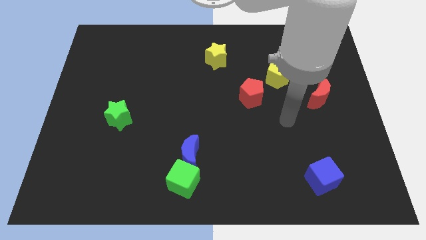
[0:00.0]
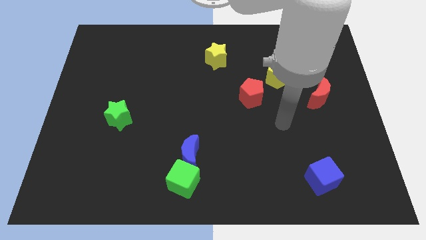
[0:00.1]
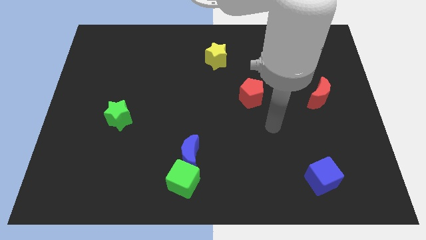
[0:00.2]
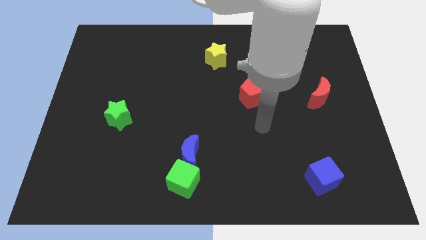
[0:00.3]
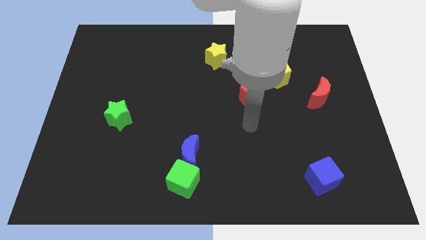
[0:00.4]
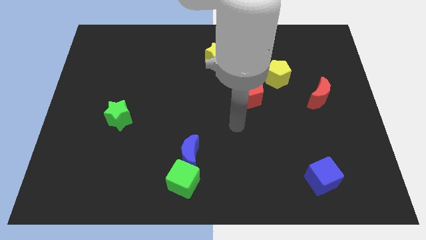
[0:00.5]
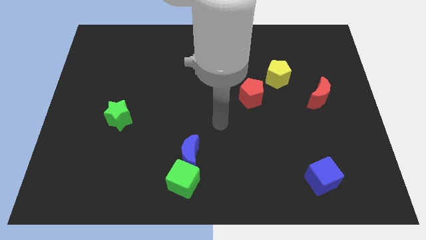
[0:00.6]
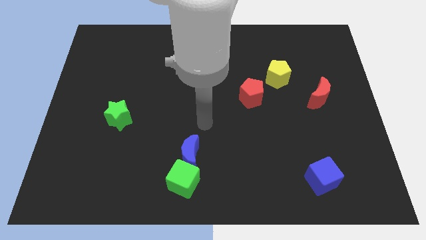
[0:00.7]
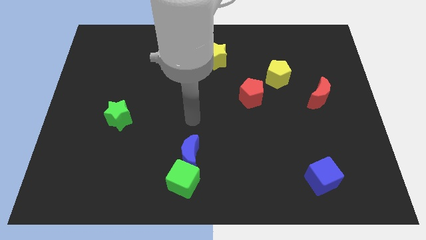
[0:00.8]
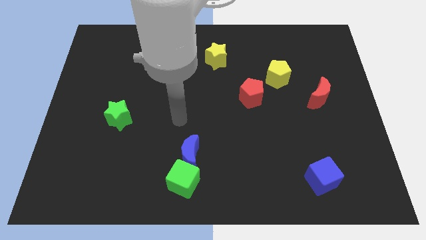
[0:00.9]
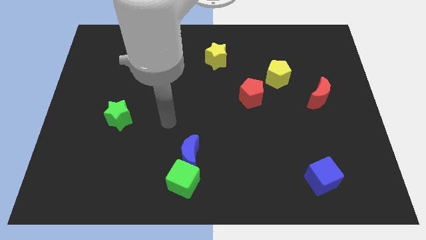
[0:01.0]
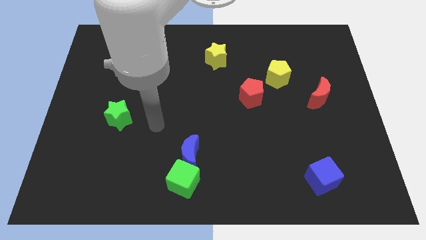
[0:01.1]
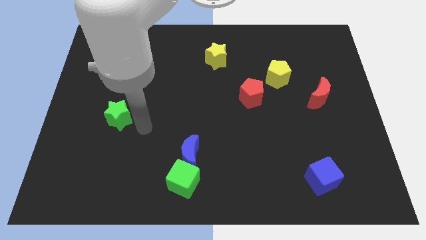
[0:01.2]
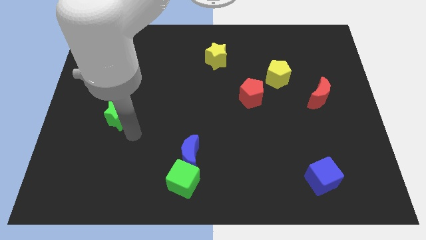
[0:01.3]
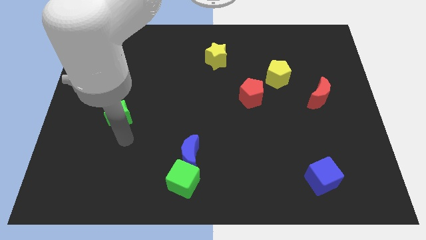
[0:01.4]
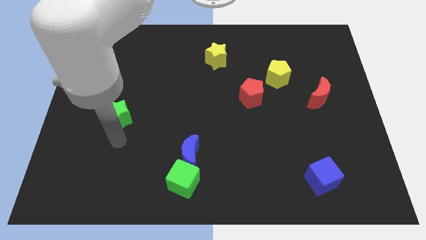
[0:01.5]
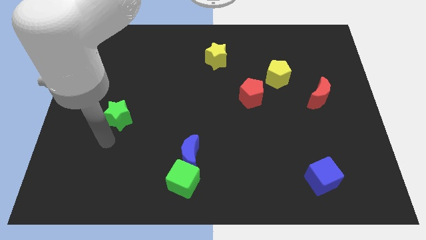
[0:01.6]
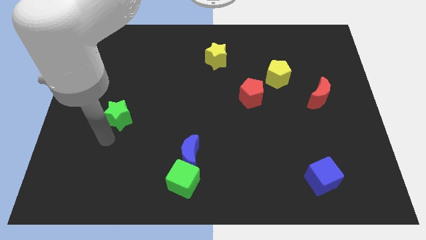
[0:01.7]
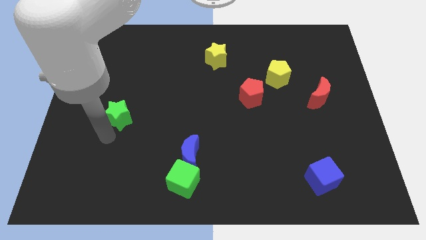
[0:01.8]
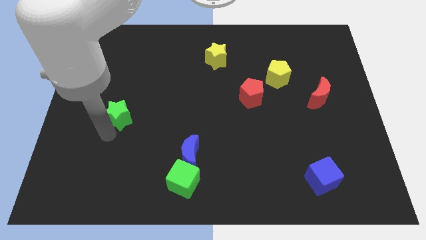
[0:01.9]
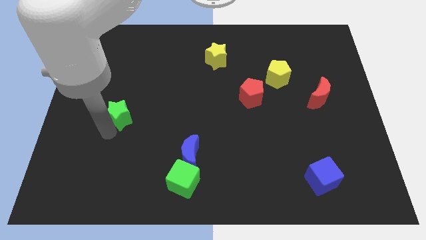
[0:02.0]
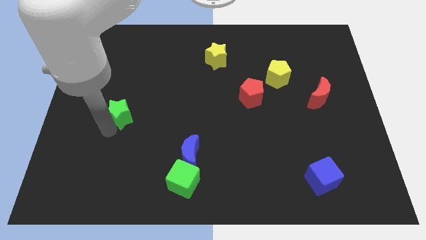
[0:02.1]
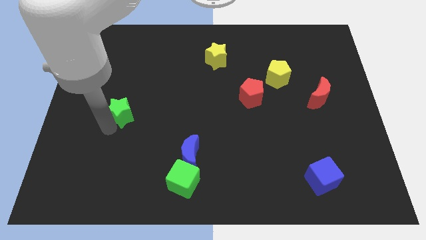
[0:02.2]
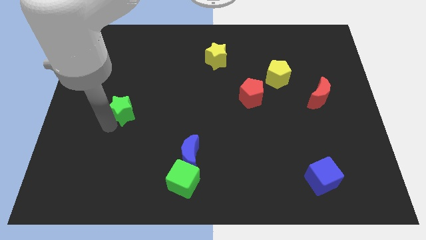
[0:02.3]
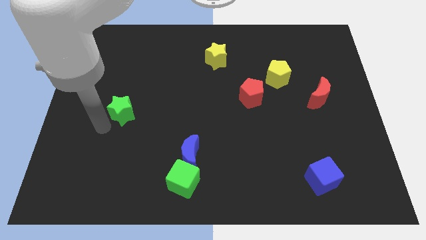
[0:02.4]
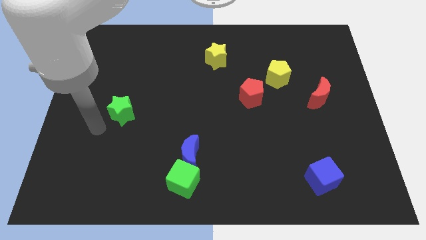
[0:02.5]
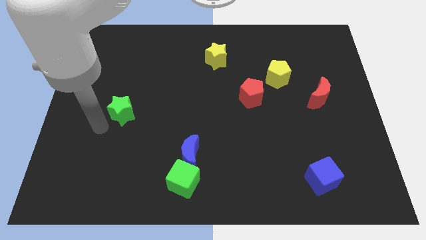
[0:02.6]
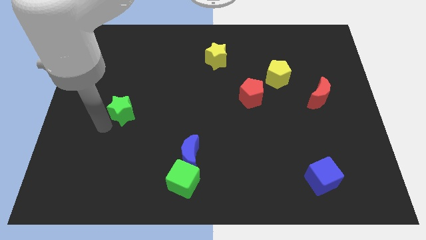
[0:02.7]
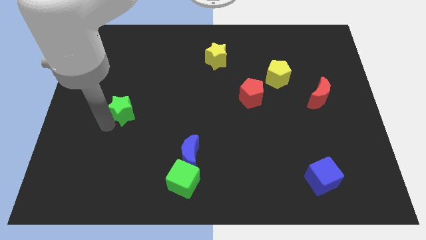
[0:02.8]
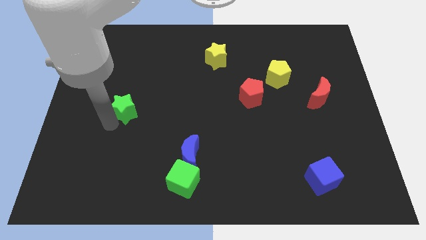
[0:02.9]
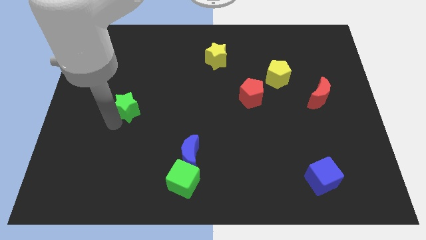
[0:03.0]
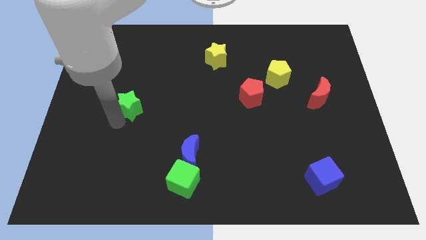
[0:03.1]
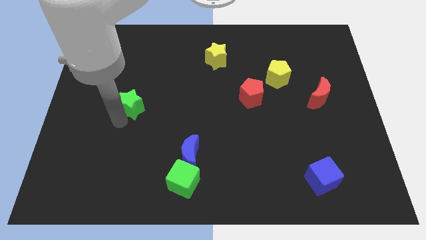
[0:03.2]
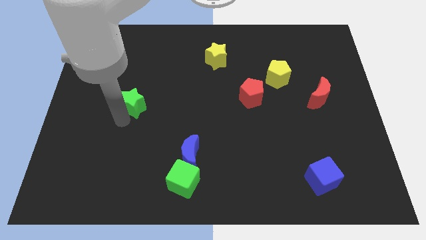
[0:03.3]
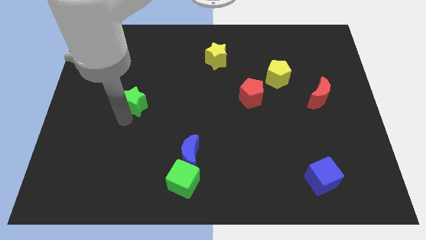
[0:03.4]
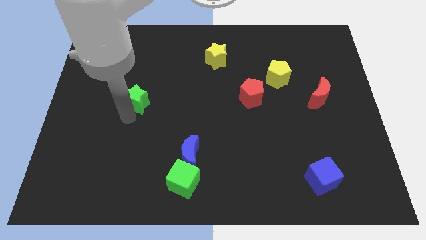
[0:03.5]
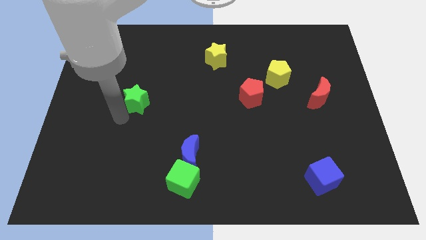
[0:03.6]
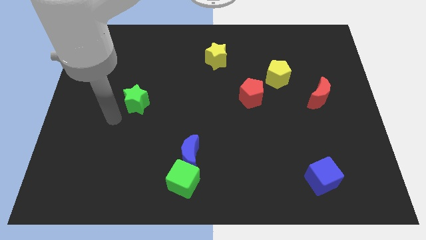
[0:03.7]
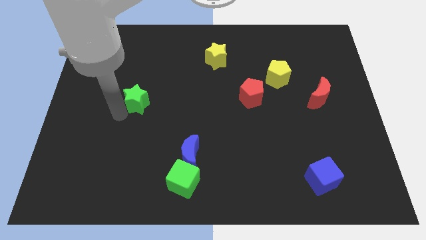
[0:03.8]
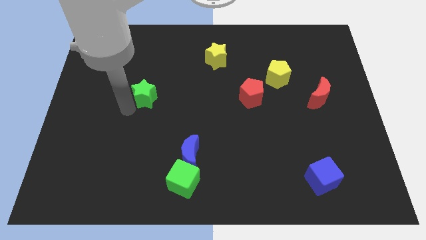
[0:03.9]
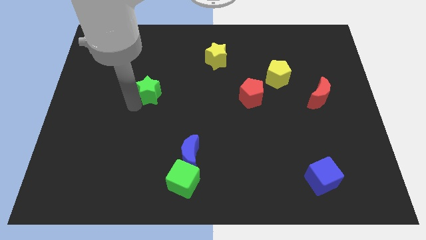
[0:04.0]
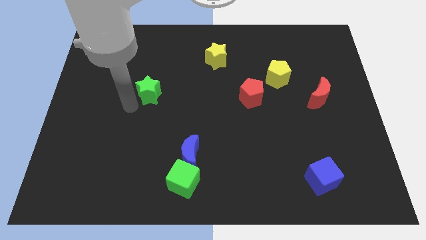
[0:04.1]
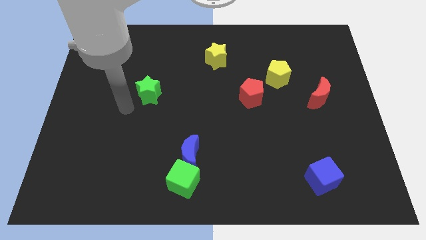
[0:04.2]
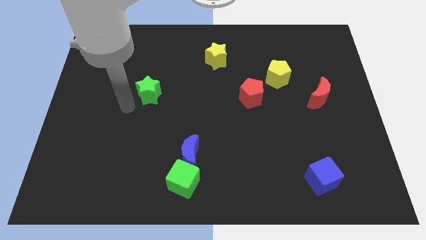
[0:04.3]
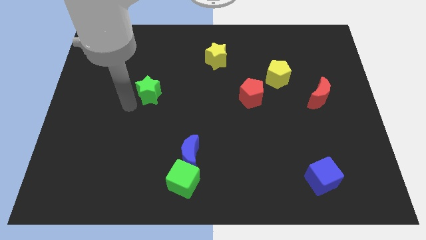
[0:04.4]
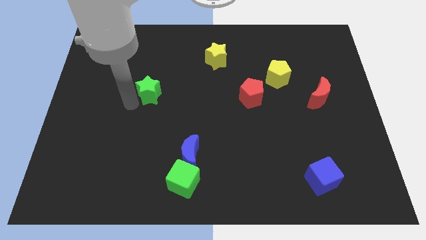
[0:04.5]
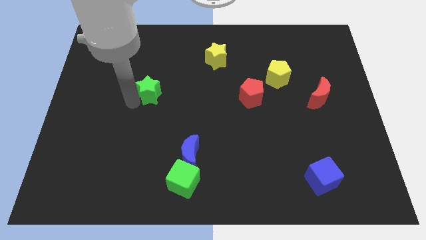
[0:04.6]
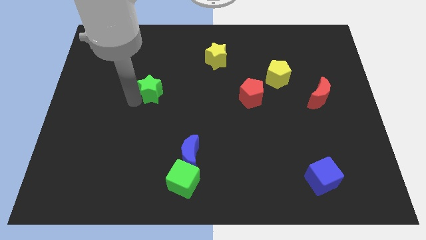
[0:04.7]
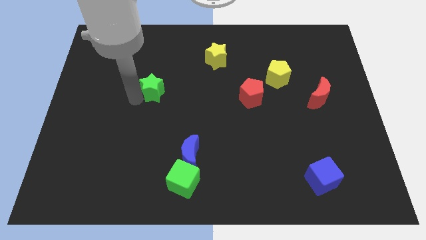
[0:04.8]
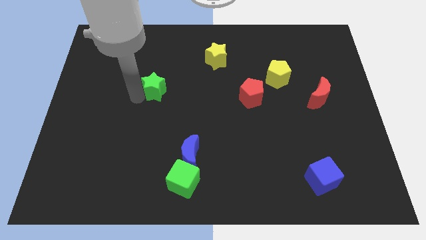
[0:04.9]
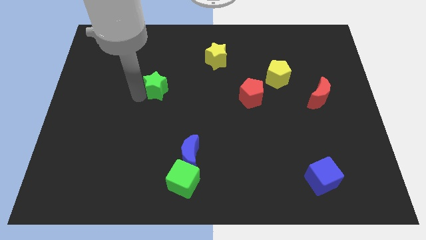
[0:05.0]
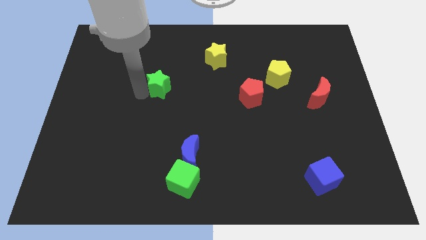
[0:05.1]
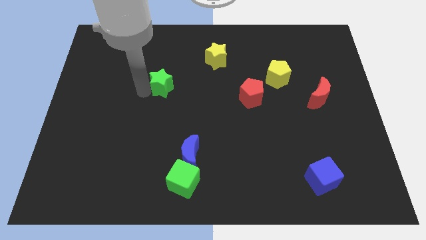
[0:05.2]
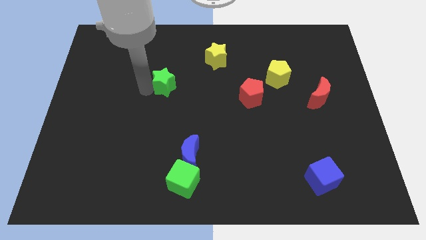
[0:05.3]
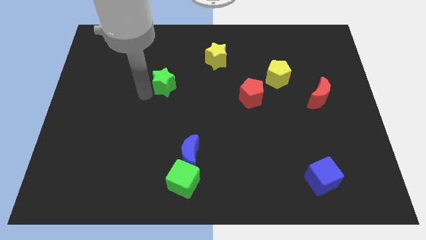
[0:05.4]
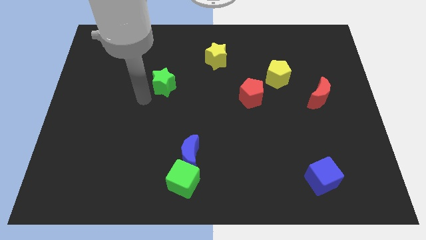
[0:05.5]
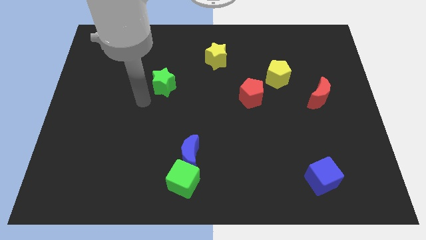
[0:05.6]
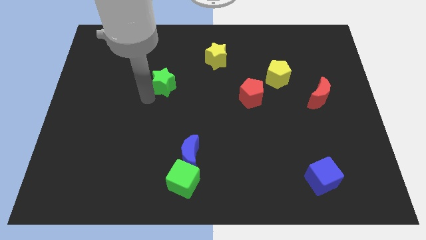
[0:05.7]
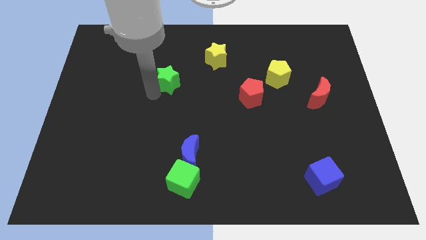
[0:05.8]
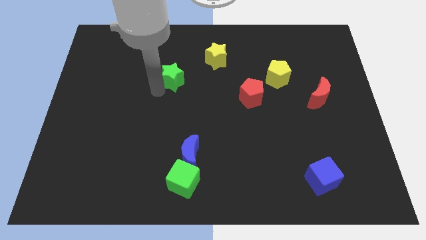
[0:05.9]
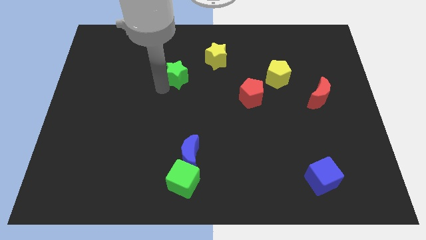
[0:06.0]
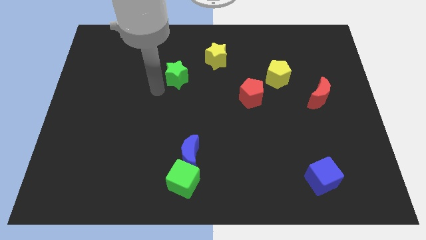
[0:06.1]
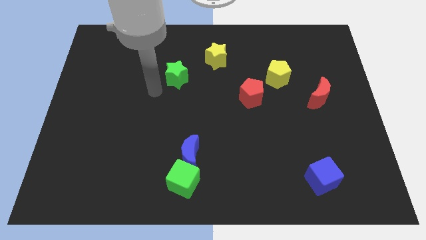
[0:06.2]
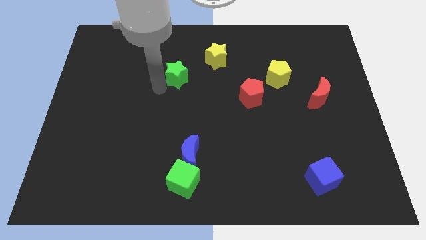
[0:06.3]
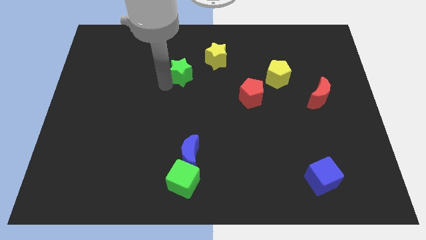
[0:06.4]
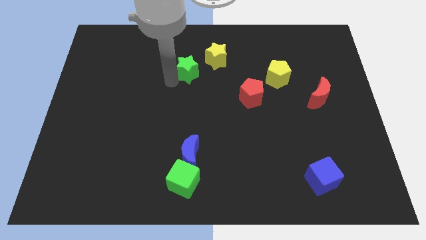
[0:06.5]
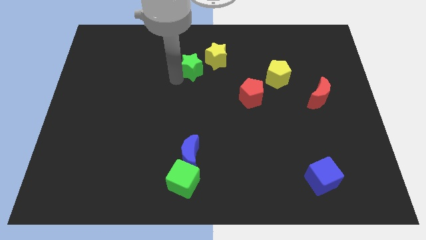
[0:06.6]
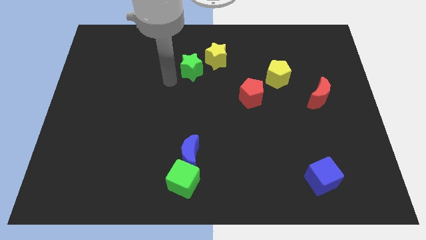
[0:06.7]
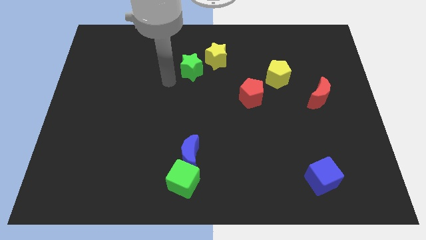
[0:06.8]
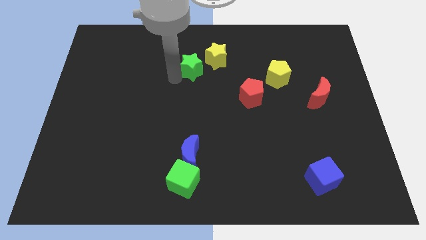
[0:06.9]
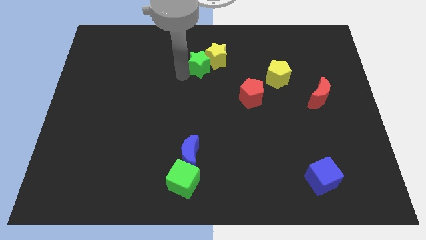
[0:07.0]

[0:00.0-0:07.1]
push the green star next to the yellow star
